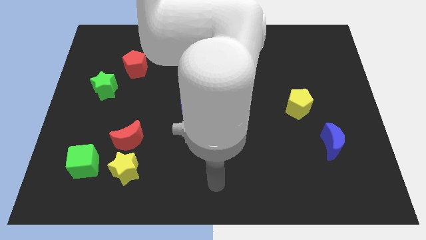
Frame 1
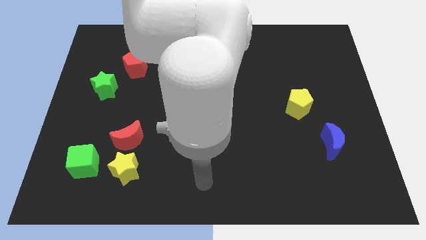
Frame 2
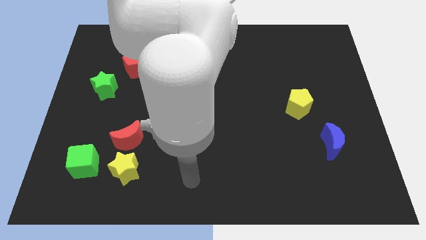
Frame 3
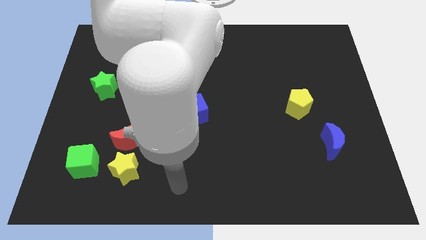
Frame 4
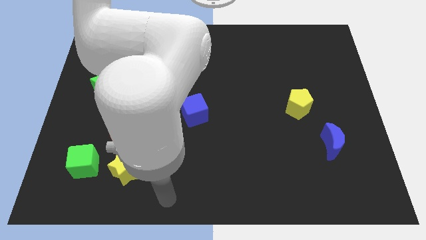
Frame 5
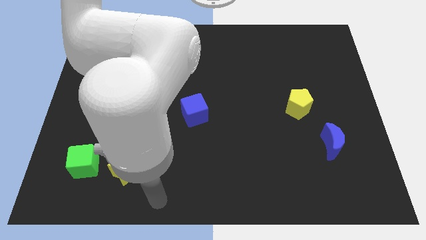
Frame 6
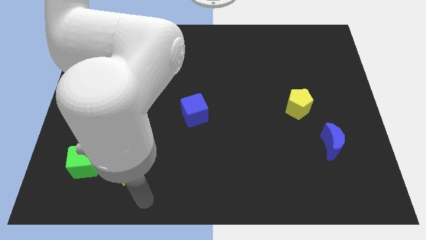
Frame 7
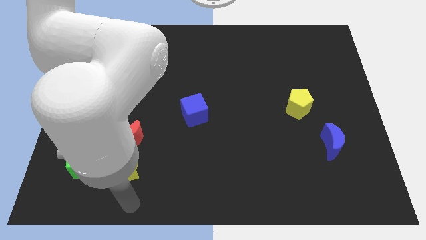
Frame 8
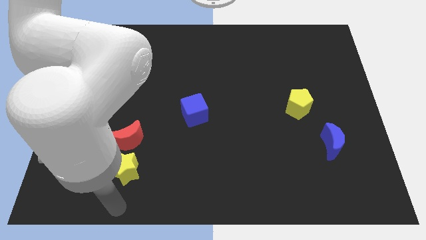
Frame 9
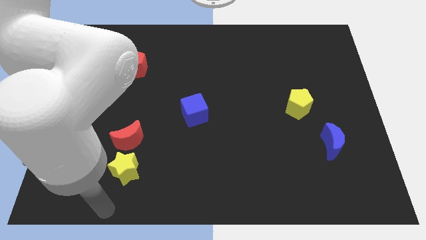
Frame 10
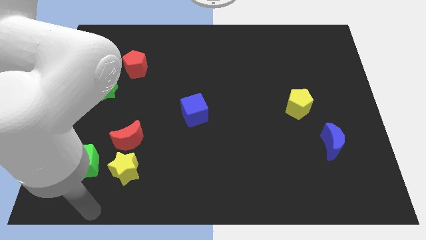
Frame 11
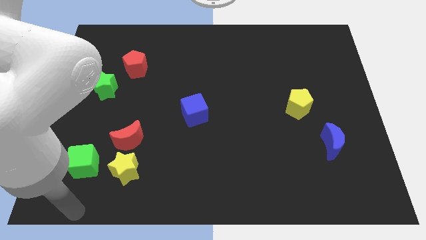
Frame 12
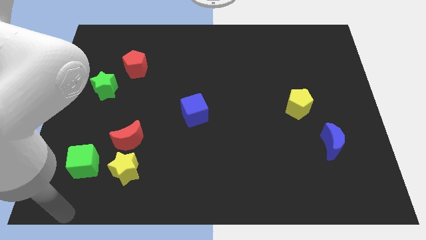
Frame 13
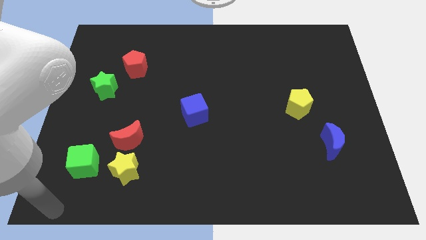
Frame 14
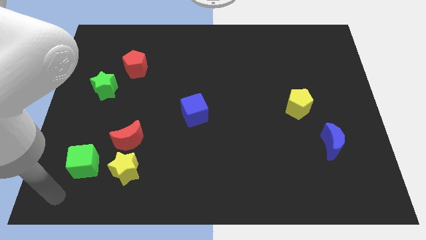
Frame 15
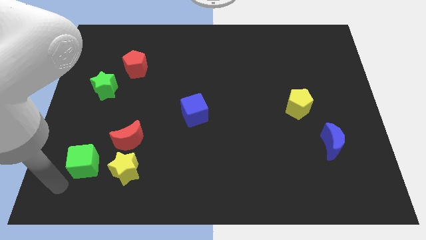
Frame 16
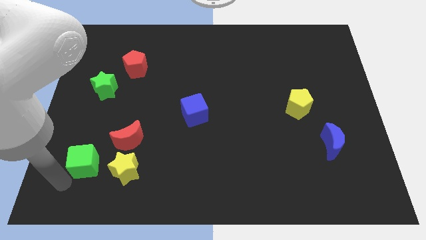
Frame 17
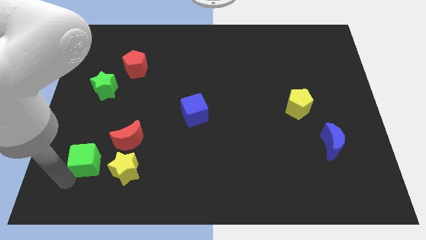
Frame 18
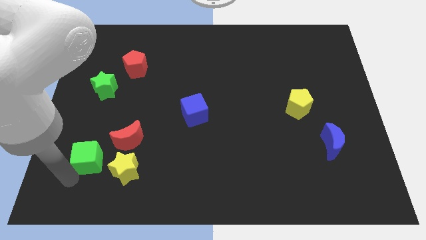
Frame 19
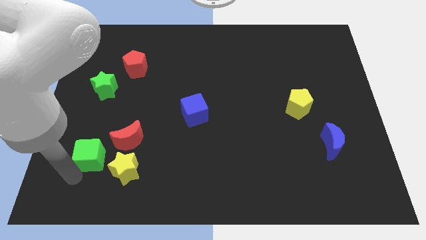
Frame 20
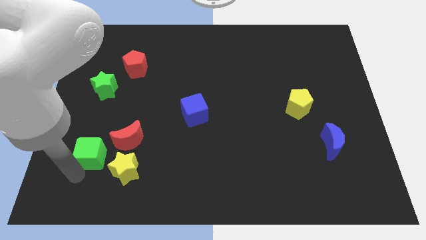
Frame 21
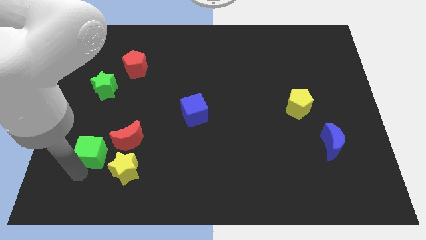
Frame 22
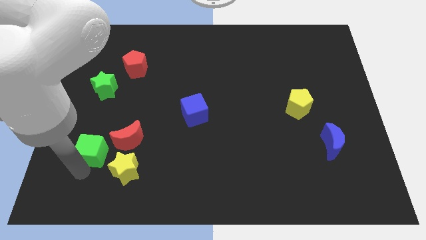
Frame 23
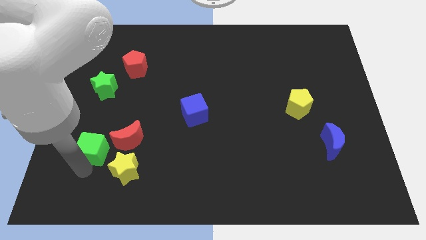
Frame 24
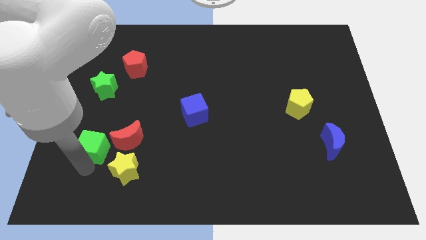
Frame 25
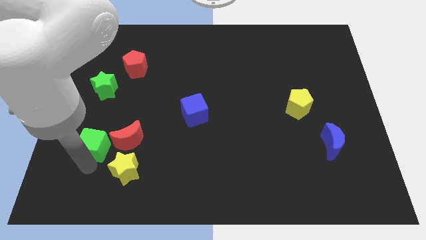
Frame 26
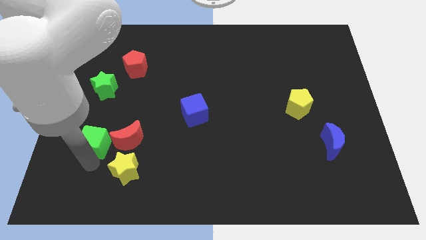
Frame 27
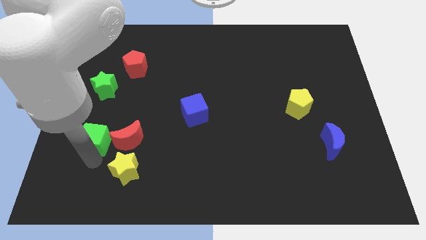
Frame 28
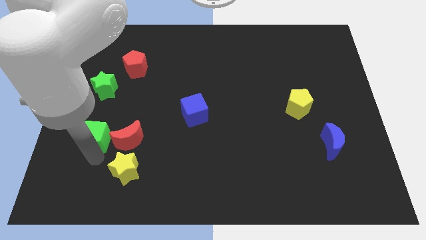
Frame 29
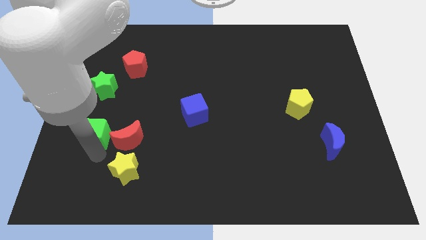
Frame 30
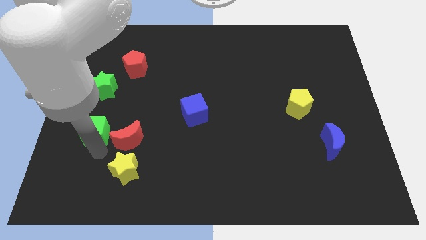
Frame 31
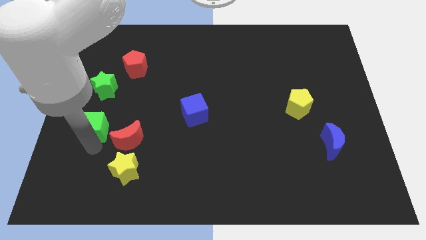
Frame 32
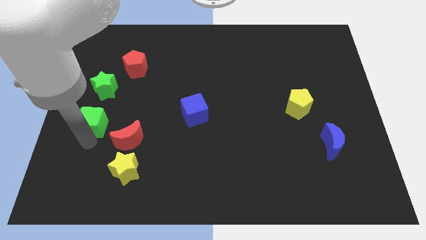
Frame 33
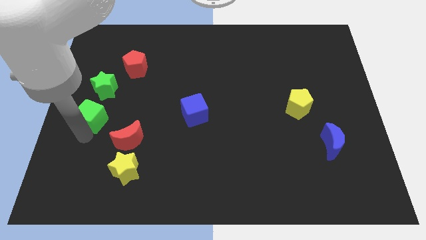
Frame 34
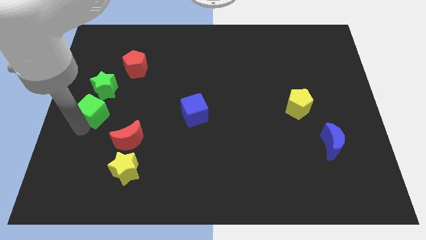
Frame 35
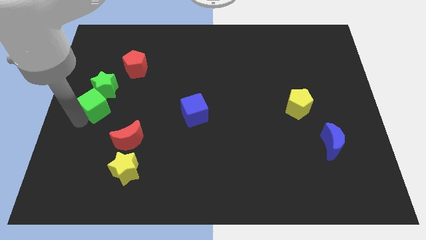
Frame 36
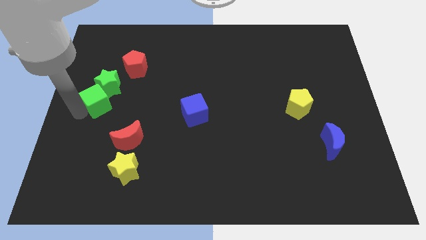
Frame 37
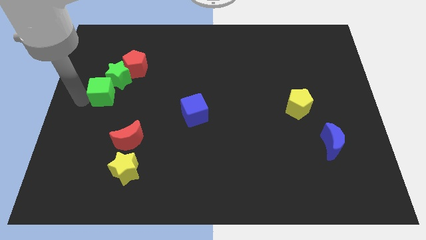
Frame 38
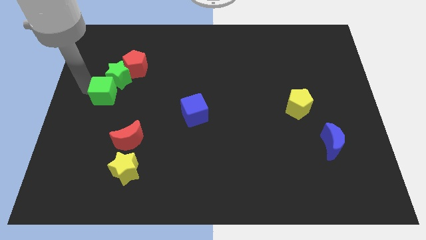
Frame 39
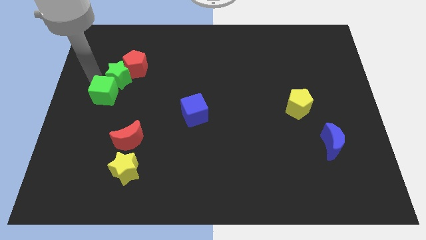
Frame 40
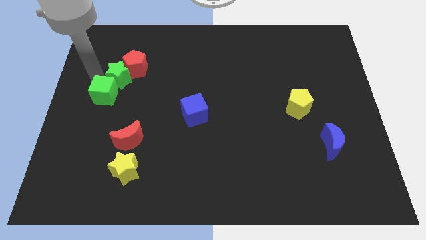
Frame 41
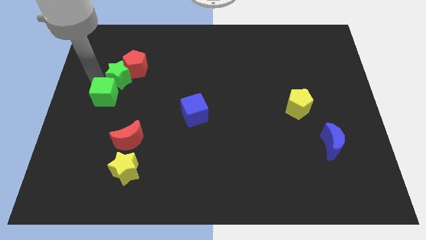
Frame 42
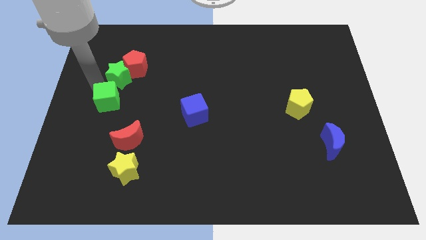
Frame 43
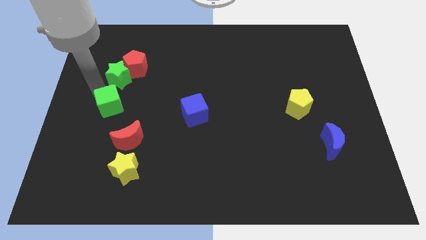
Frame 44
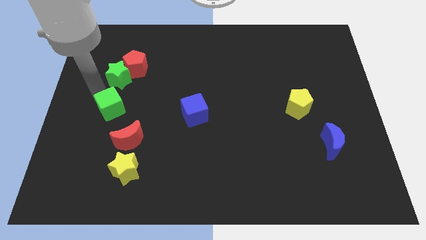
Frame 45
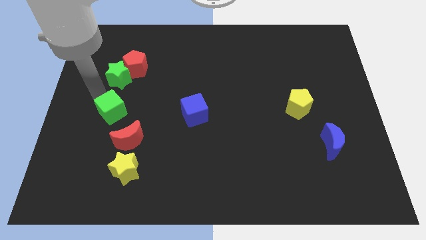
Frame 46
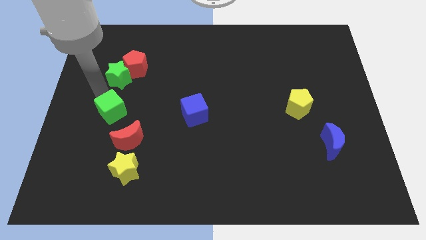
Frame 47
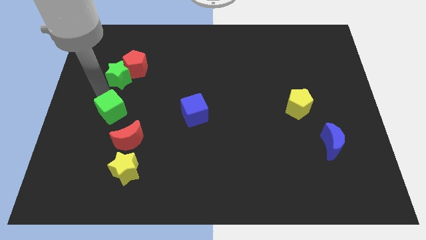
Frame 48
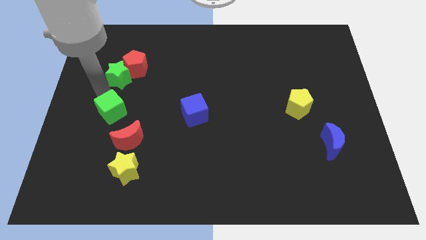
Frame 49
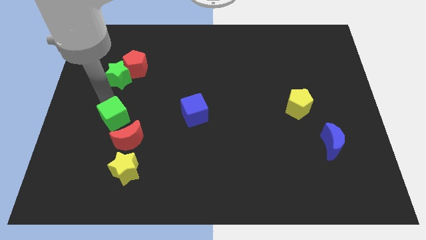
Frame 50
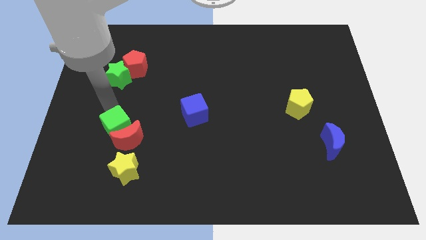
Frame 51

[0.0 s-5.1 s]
push the green cube towards the red moon

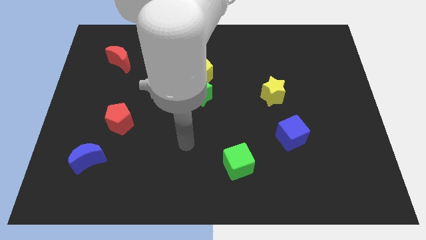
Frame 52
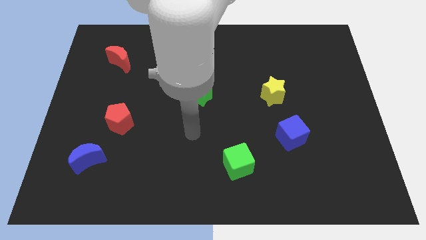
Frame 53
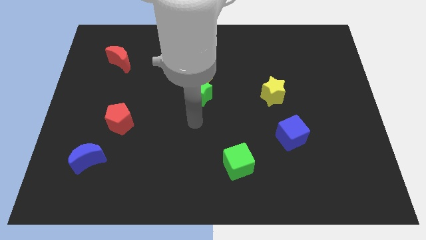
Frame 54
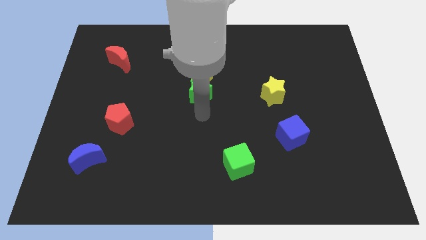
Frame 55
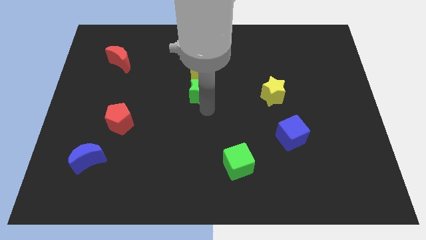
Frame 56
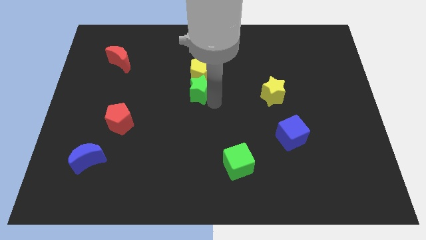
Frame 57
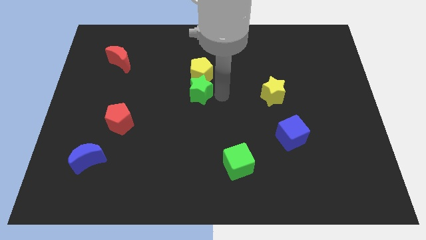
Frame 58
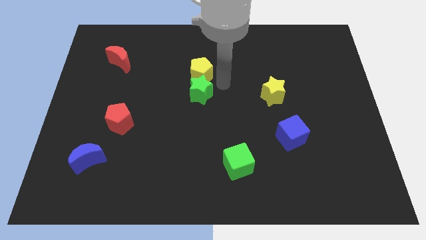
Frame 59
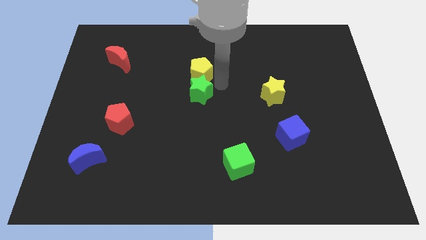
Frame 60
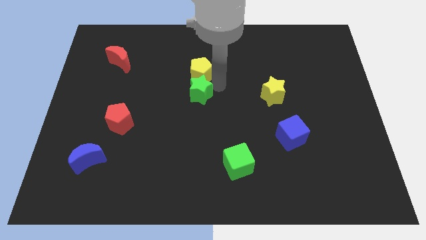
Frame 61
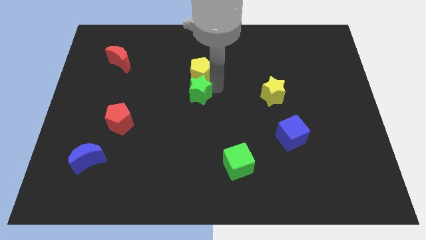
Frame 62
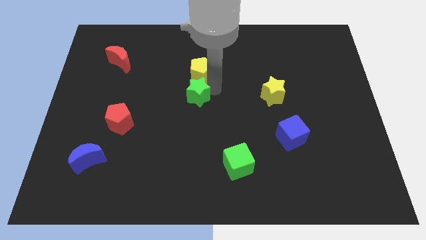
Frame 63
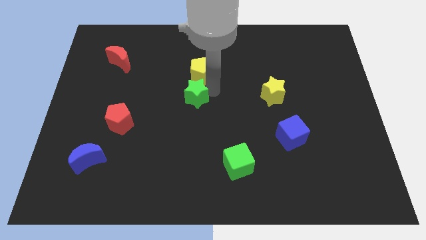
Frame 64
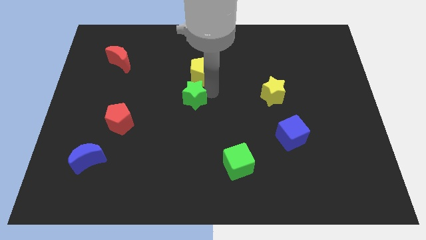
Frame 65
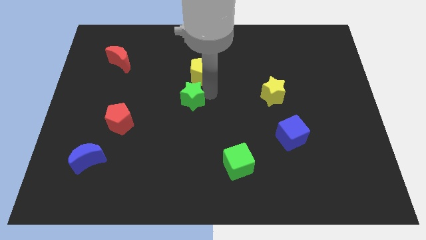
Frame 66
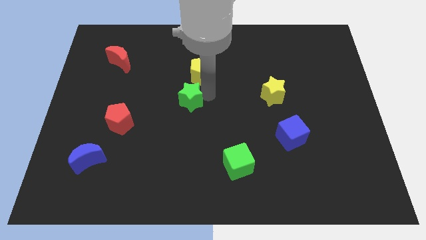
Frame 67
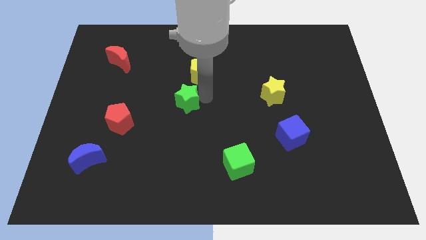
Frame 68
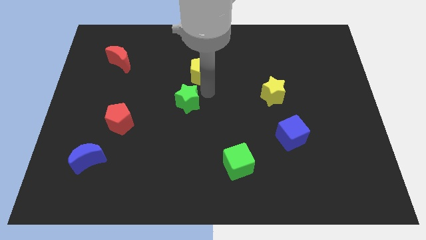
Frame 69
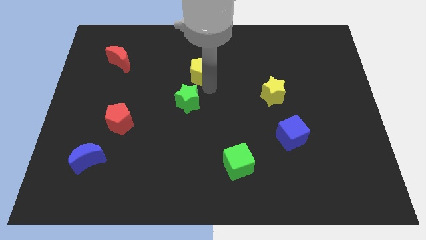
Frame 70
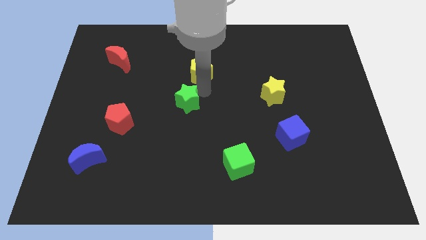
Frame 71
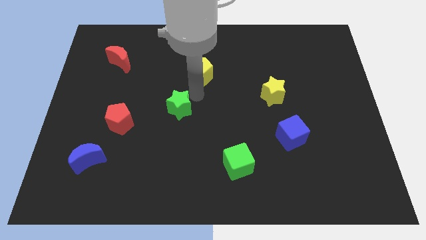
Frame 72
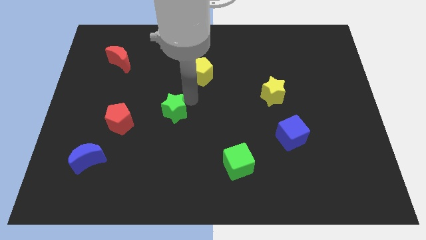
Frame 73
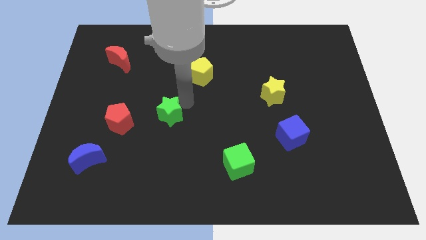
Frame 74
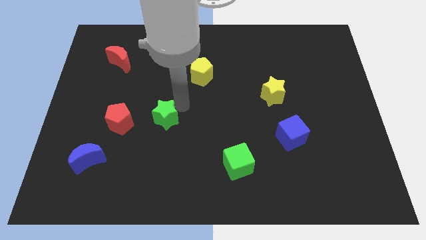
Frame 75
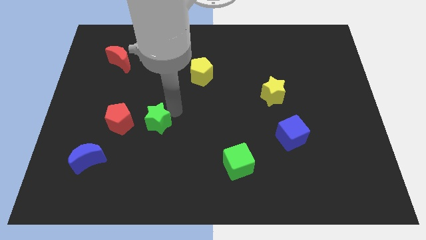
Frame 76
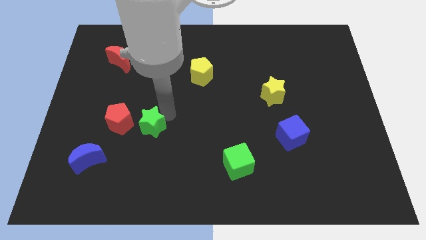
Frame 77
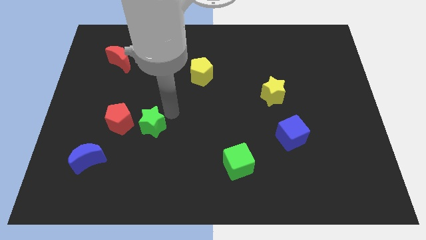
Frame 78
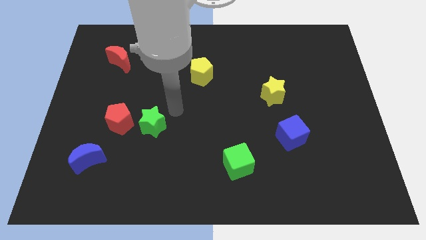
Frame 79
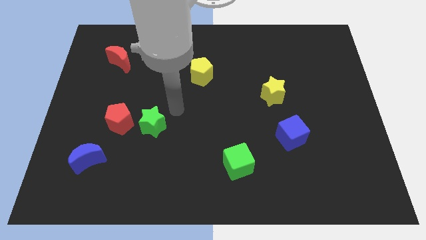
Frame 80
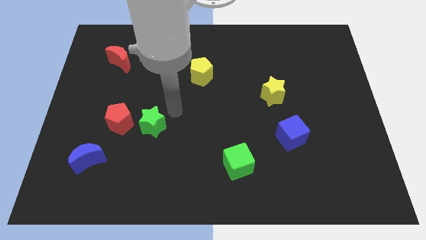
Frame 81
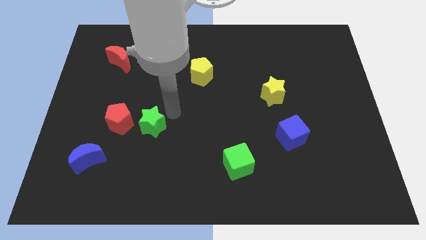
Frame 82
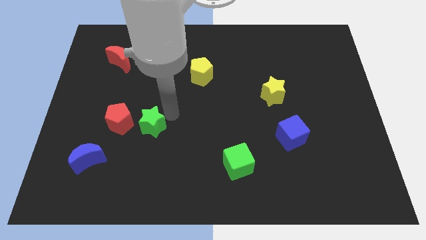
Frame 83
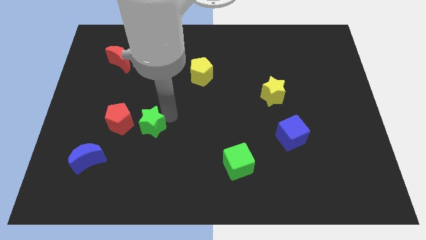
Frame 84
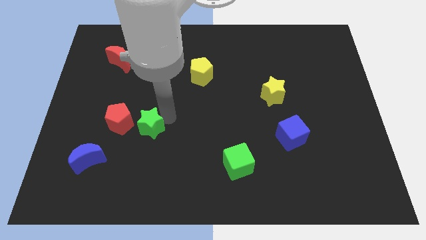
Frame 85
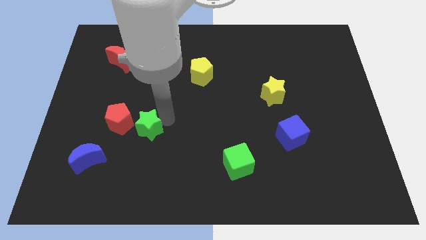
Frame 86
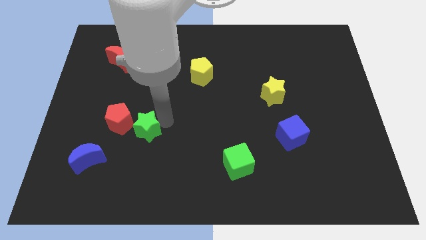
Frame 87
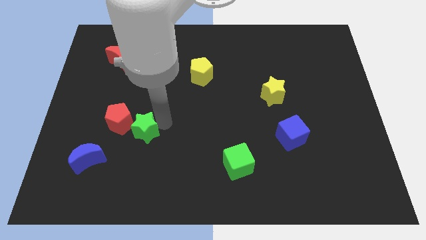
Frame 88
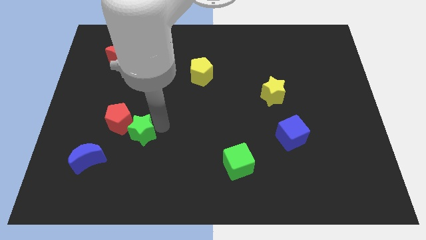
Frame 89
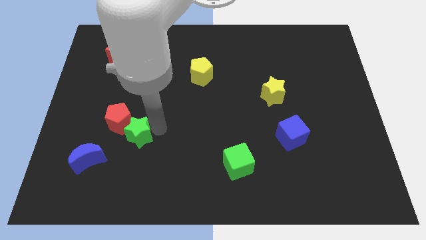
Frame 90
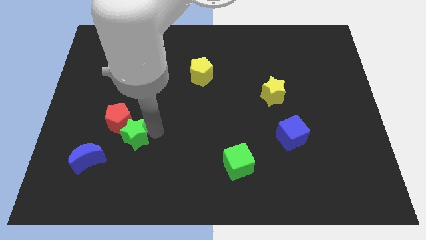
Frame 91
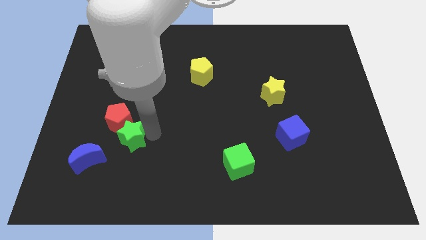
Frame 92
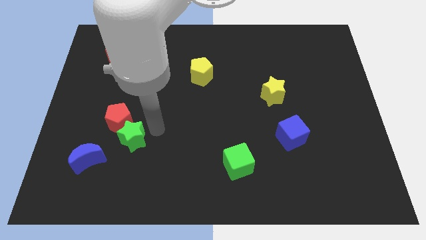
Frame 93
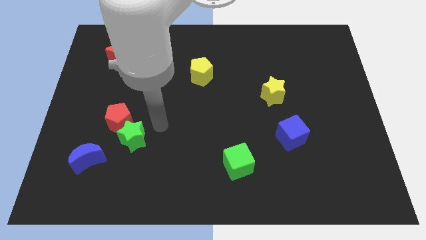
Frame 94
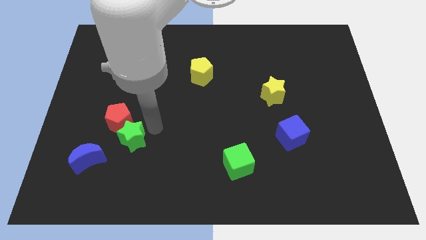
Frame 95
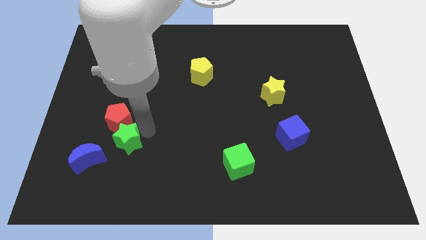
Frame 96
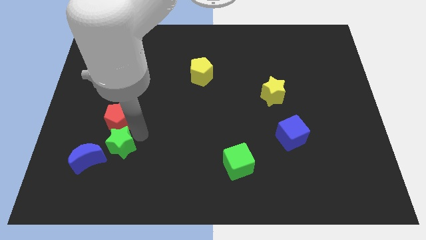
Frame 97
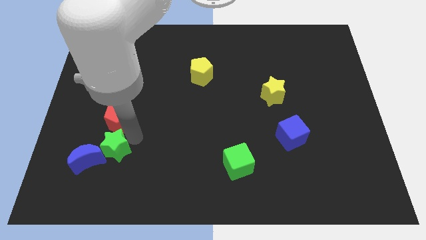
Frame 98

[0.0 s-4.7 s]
push the green star next to the blue moon
